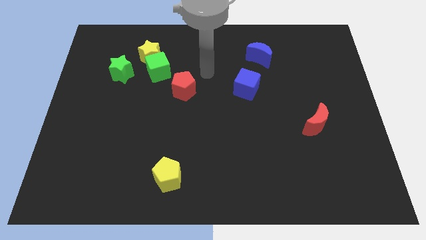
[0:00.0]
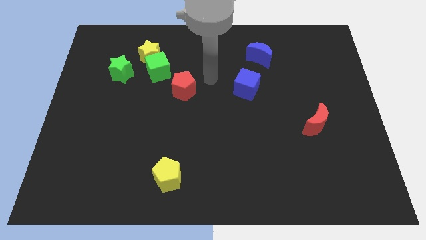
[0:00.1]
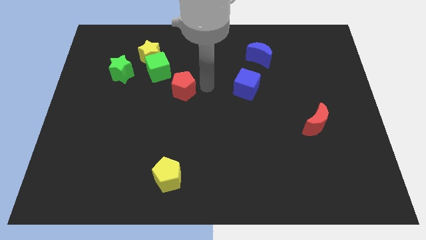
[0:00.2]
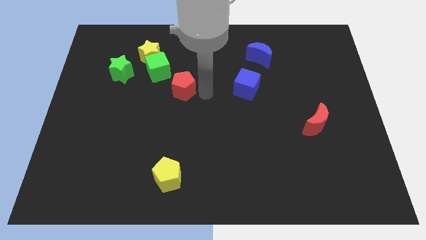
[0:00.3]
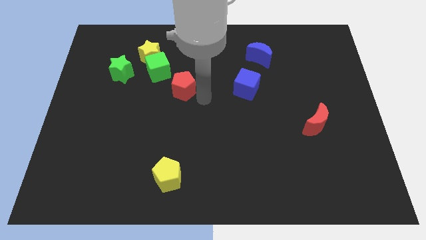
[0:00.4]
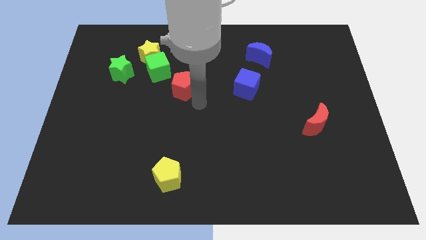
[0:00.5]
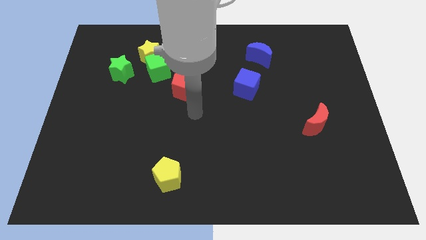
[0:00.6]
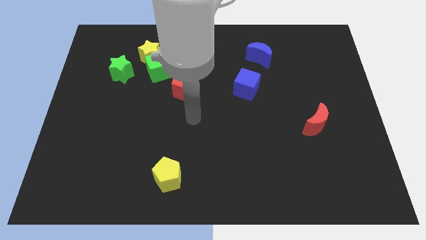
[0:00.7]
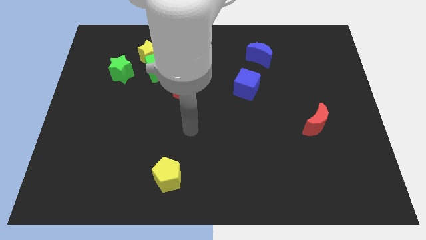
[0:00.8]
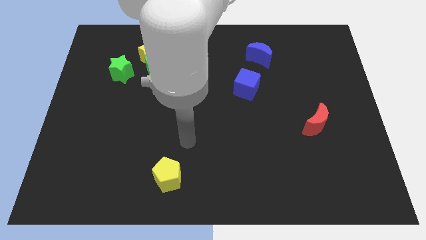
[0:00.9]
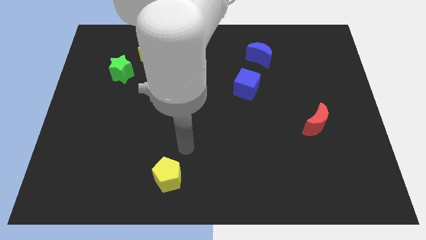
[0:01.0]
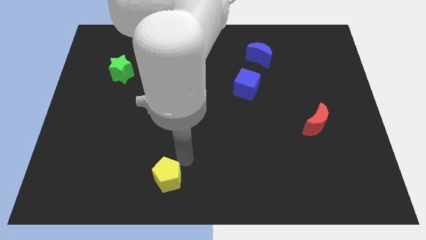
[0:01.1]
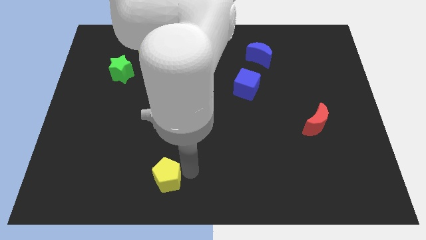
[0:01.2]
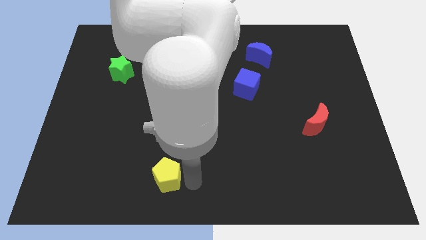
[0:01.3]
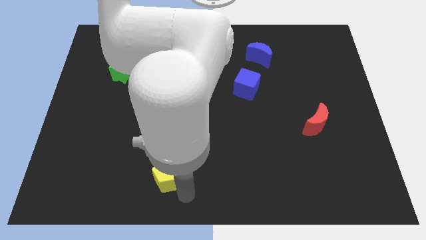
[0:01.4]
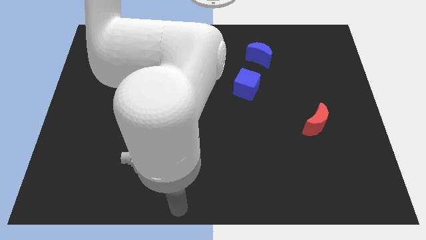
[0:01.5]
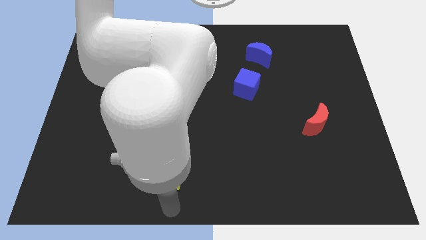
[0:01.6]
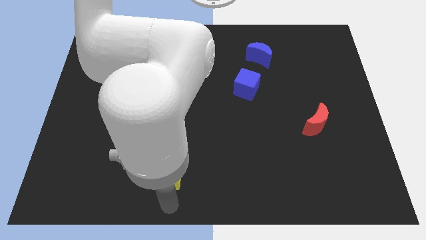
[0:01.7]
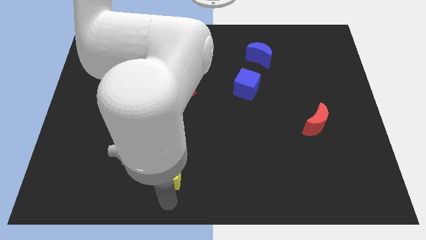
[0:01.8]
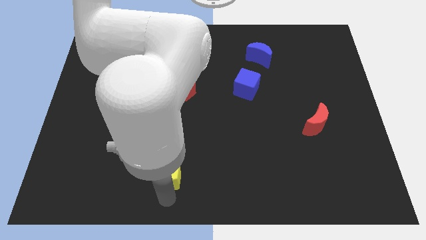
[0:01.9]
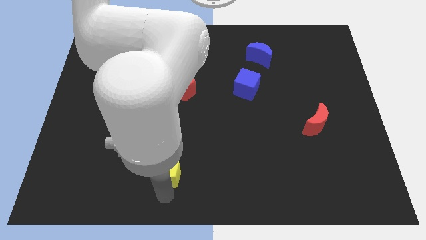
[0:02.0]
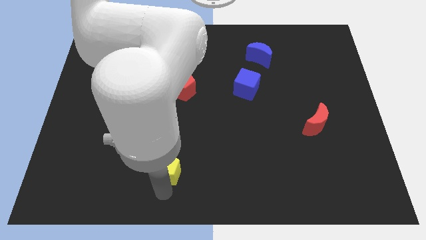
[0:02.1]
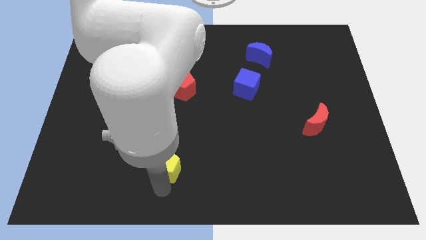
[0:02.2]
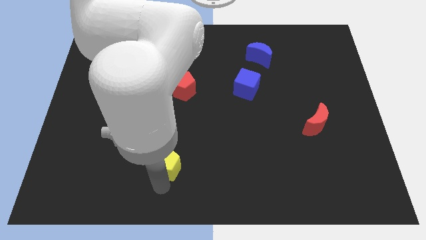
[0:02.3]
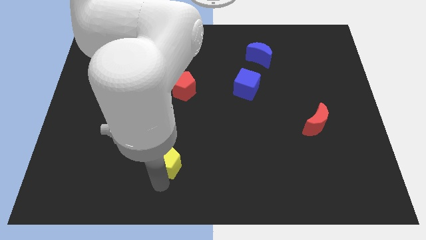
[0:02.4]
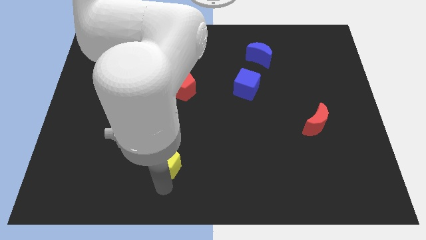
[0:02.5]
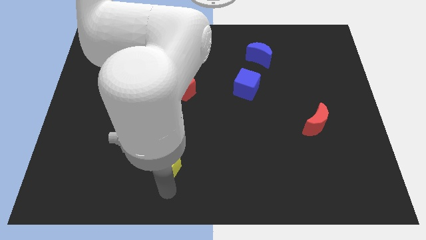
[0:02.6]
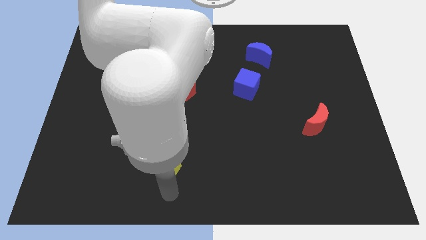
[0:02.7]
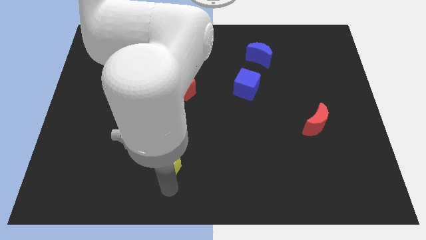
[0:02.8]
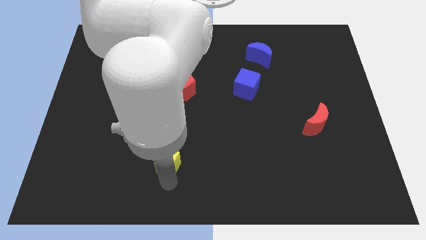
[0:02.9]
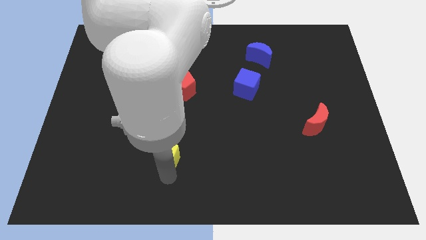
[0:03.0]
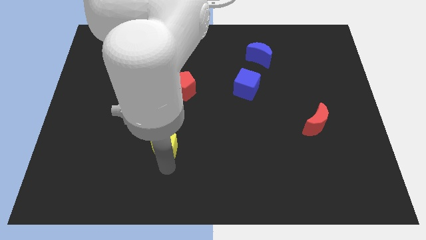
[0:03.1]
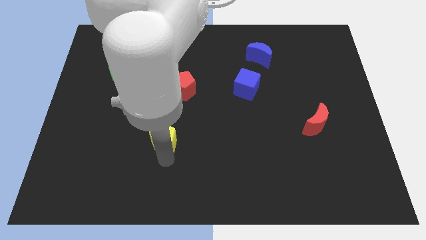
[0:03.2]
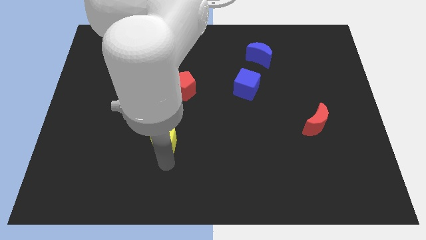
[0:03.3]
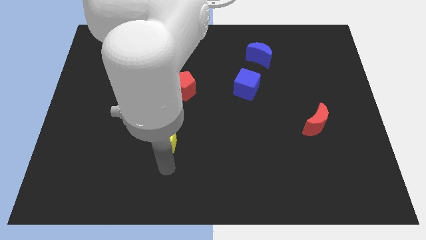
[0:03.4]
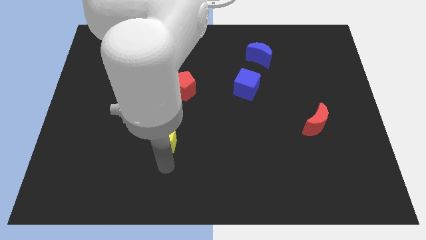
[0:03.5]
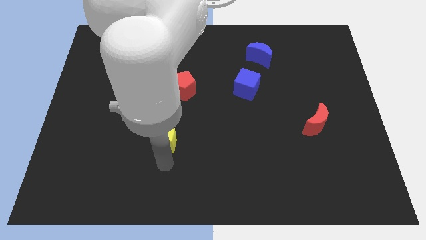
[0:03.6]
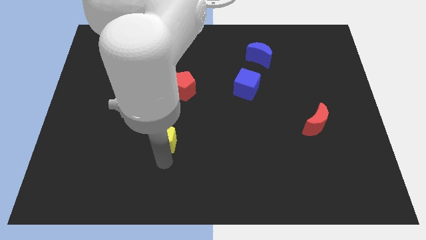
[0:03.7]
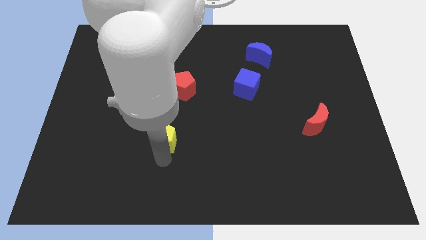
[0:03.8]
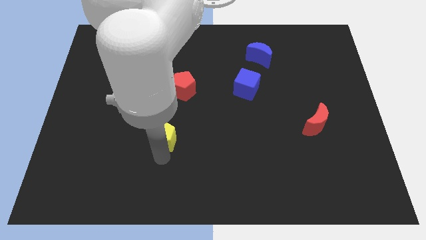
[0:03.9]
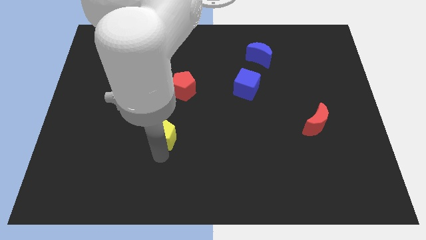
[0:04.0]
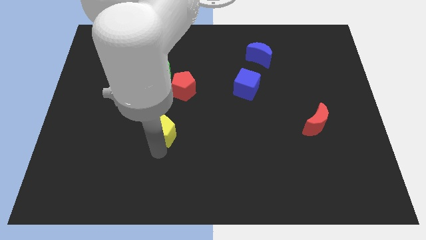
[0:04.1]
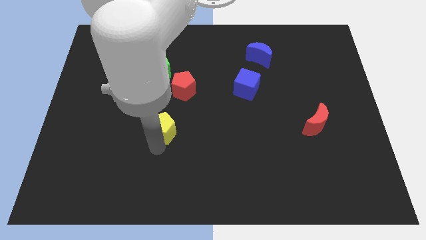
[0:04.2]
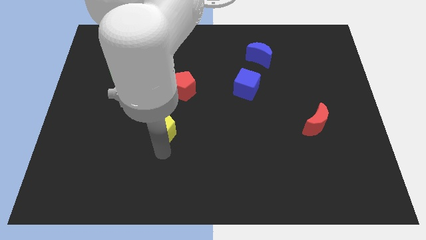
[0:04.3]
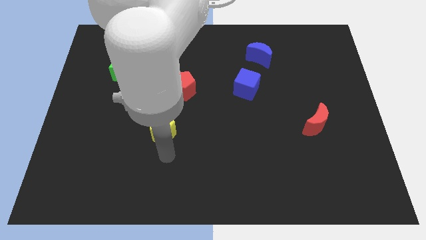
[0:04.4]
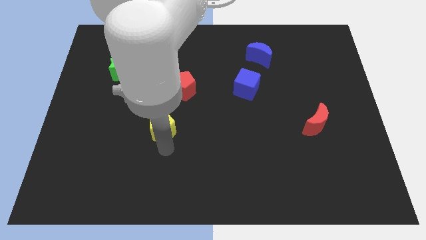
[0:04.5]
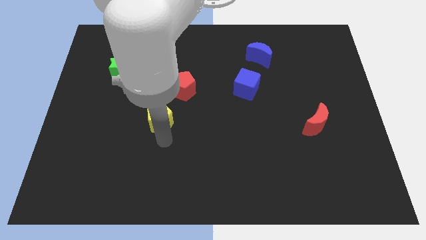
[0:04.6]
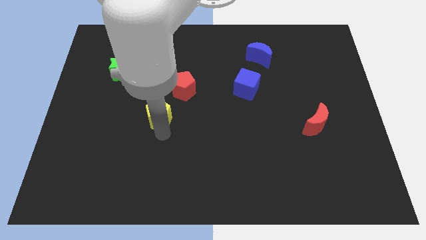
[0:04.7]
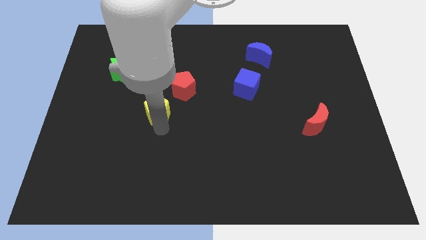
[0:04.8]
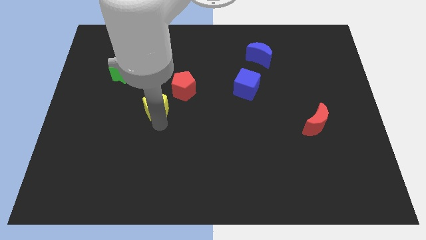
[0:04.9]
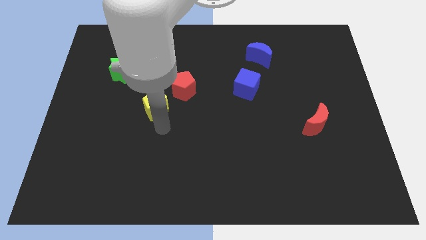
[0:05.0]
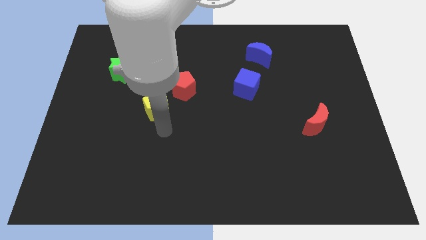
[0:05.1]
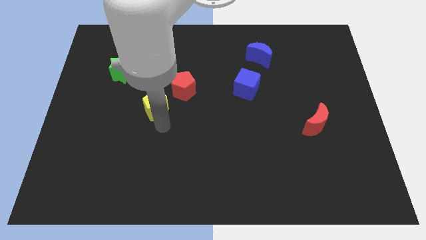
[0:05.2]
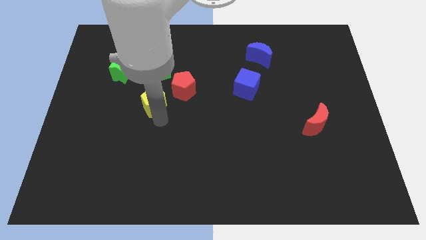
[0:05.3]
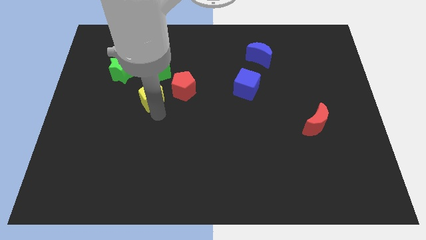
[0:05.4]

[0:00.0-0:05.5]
put the yellow pentagon to the bottom side of the yellow star

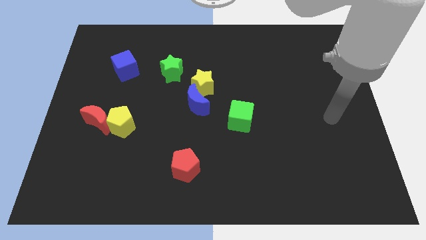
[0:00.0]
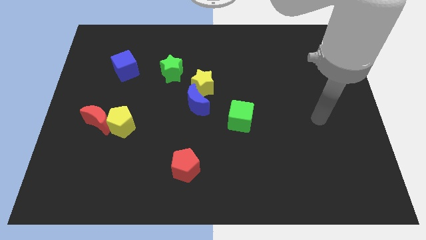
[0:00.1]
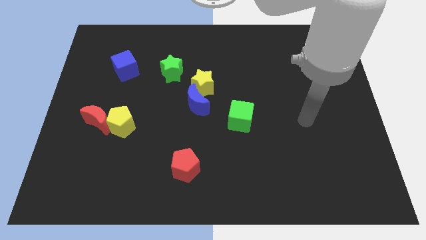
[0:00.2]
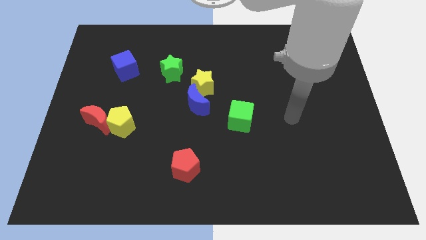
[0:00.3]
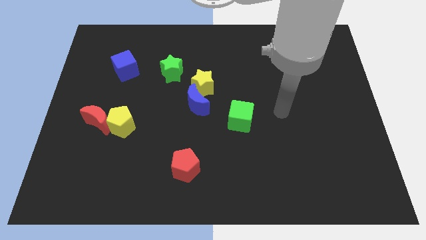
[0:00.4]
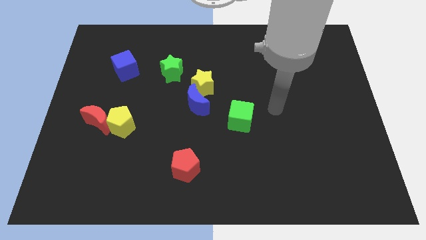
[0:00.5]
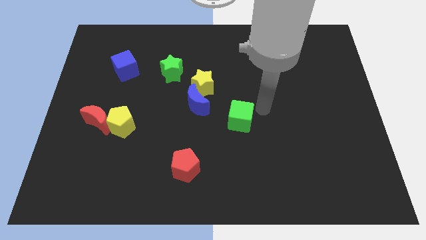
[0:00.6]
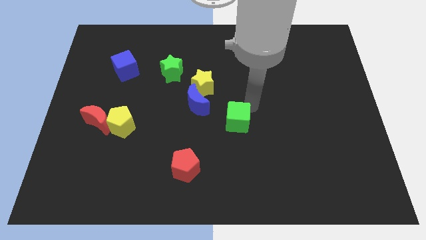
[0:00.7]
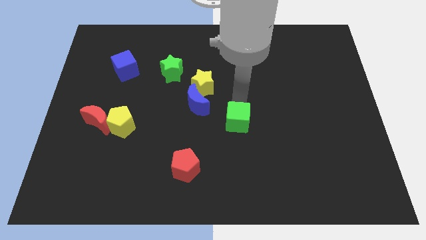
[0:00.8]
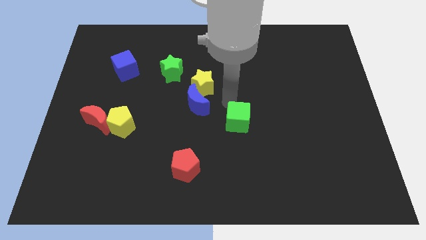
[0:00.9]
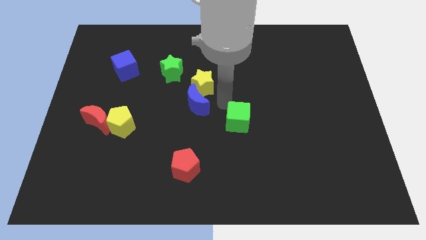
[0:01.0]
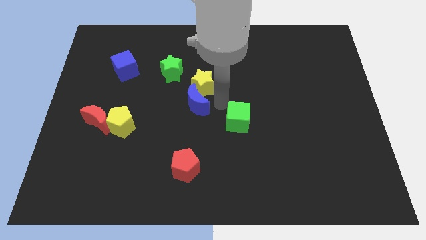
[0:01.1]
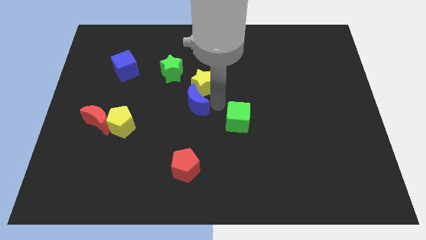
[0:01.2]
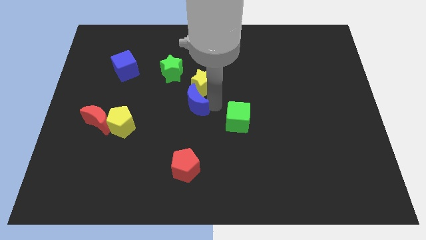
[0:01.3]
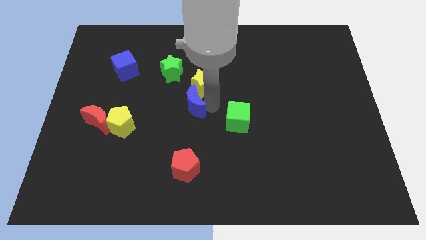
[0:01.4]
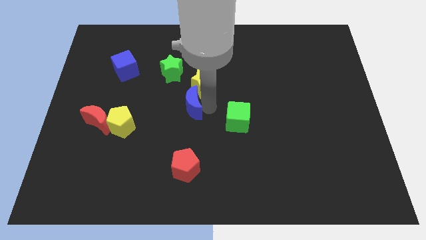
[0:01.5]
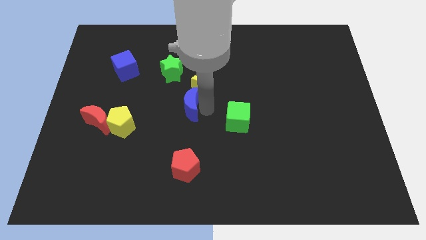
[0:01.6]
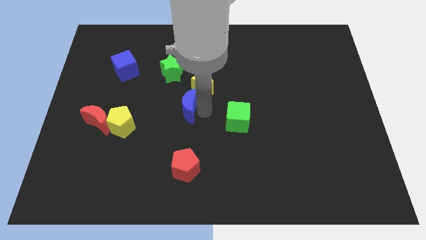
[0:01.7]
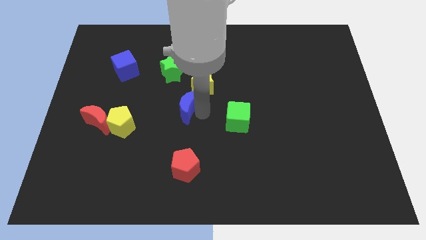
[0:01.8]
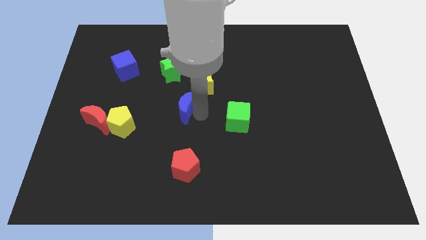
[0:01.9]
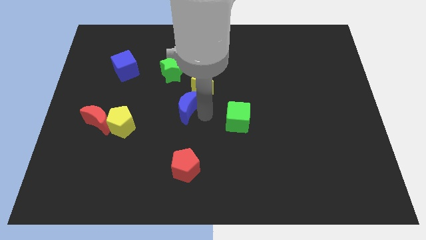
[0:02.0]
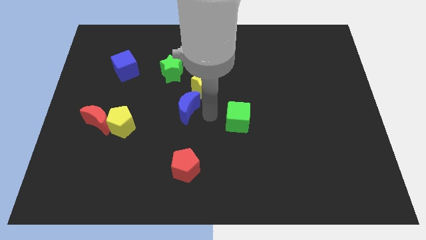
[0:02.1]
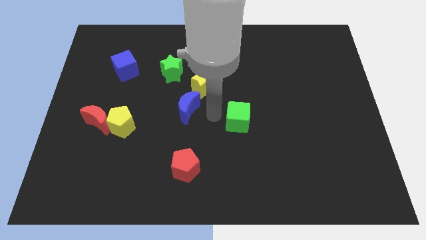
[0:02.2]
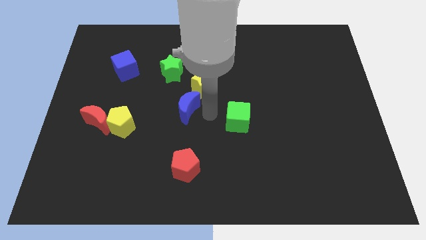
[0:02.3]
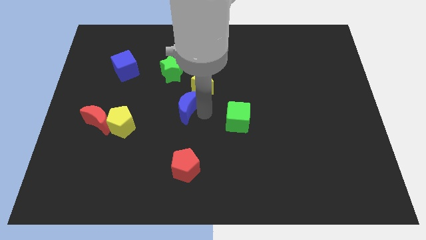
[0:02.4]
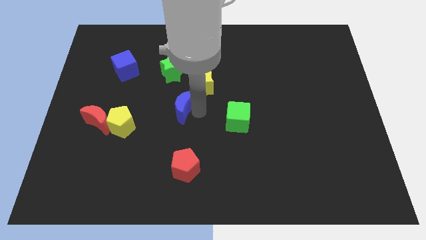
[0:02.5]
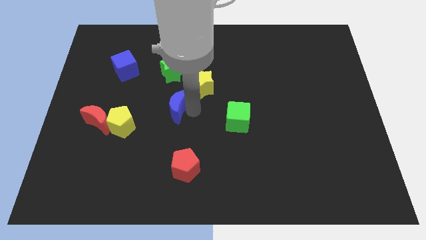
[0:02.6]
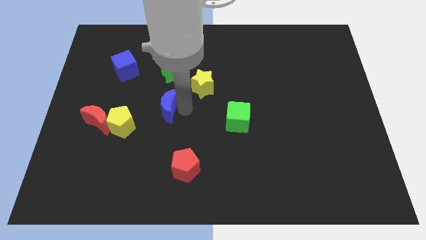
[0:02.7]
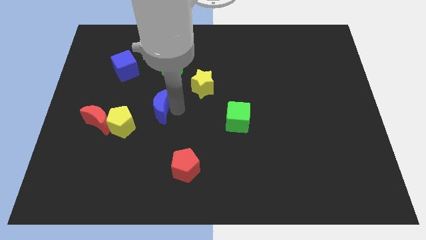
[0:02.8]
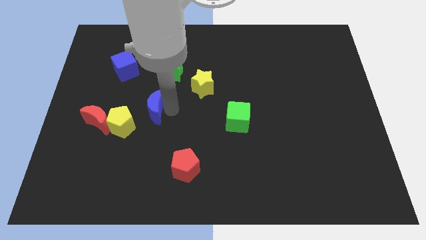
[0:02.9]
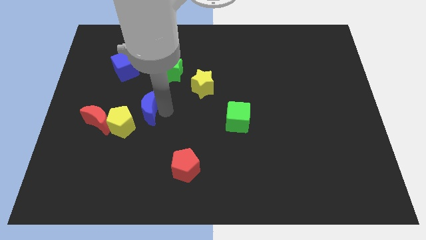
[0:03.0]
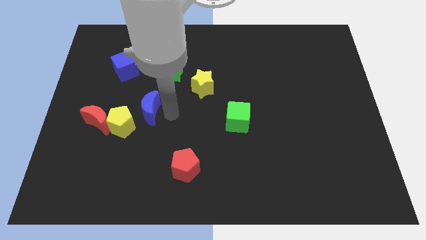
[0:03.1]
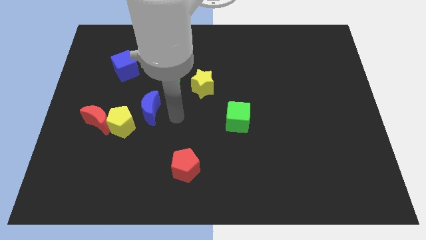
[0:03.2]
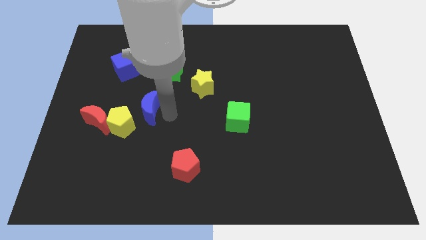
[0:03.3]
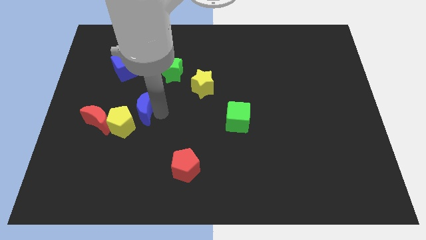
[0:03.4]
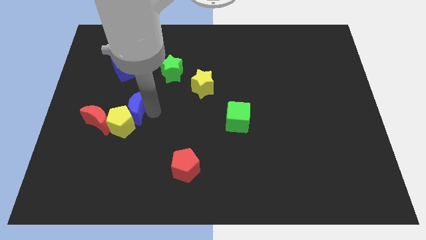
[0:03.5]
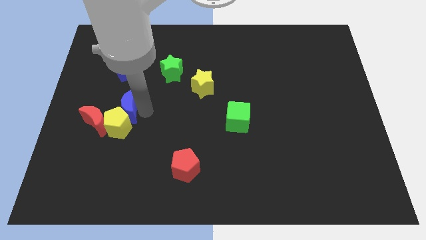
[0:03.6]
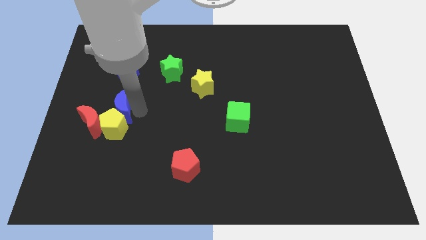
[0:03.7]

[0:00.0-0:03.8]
move the blue moon diagonally up and to the left of the yellow pentagon
